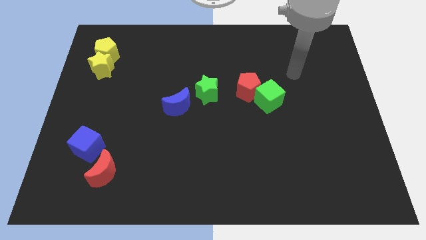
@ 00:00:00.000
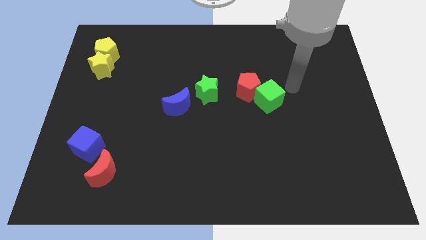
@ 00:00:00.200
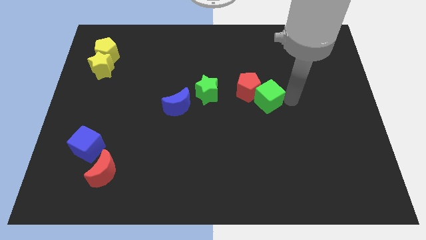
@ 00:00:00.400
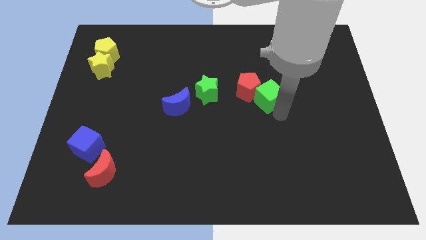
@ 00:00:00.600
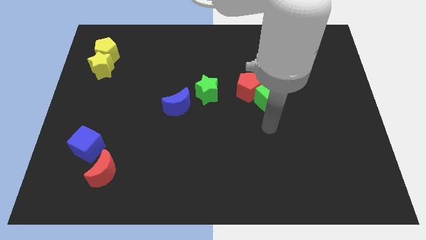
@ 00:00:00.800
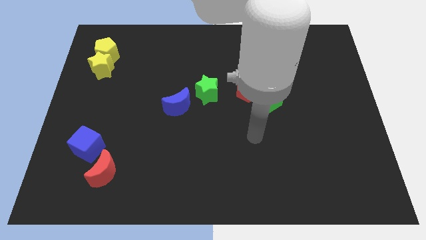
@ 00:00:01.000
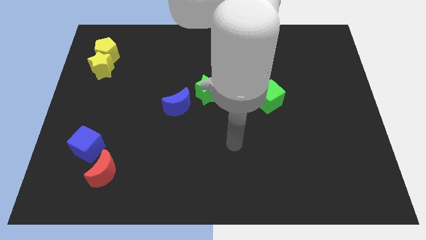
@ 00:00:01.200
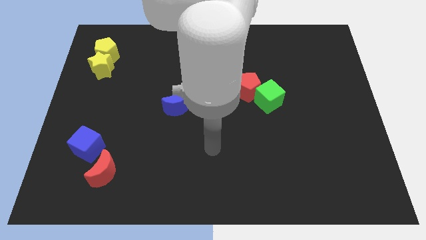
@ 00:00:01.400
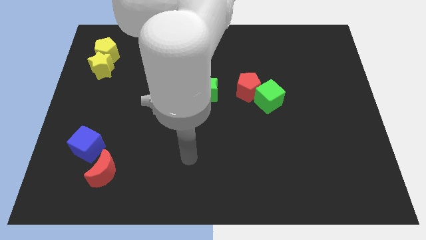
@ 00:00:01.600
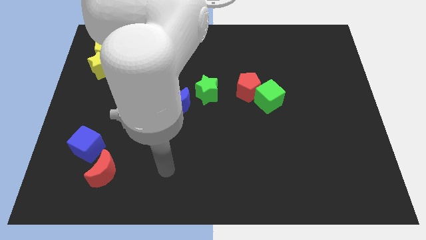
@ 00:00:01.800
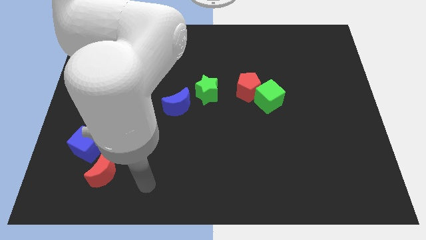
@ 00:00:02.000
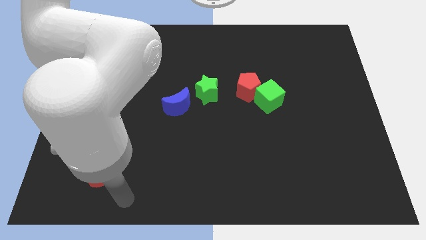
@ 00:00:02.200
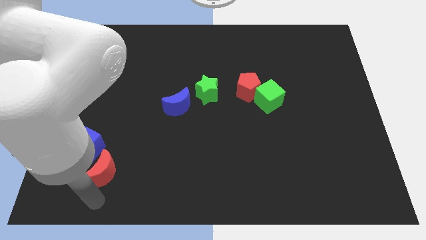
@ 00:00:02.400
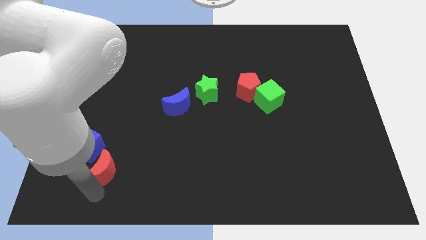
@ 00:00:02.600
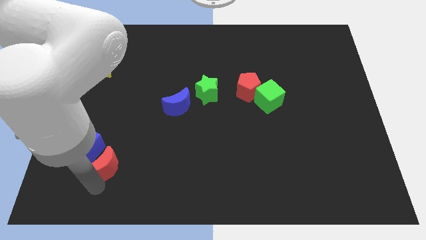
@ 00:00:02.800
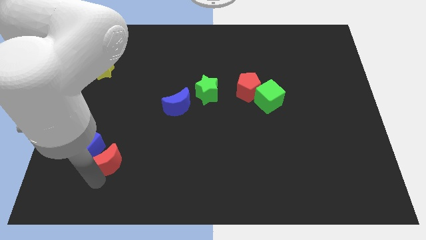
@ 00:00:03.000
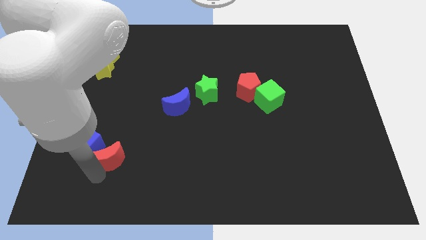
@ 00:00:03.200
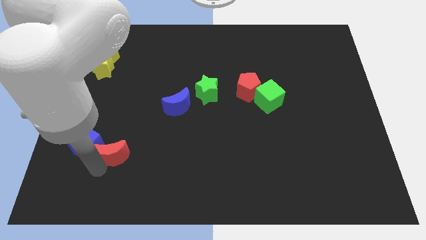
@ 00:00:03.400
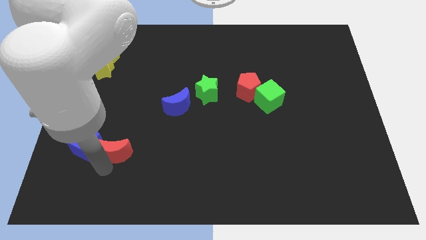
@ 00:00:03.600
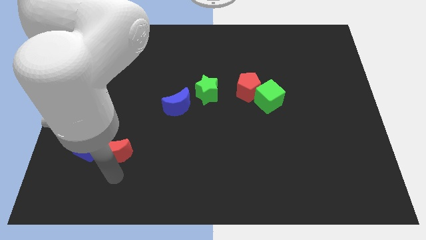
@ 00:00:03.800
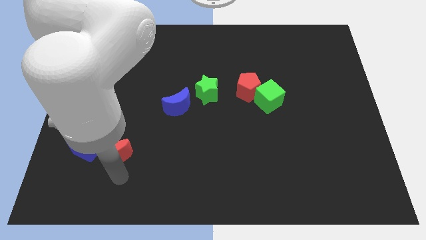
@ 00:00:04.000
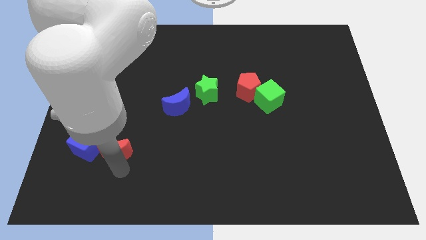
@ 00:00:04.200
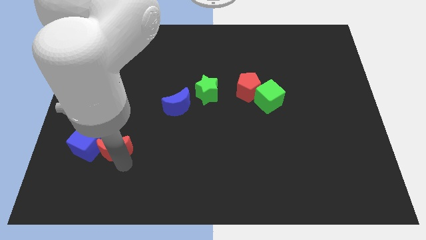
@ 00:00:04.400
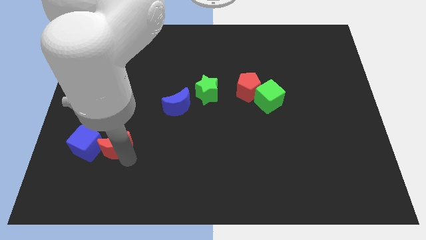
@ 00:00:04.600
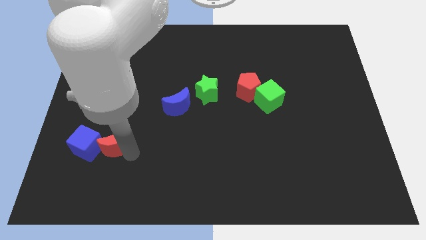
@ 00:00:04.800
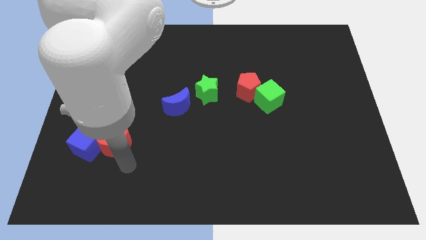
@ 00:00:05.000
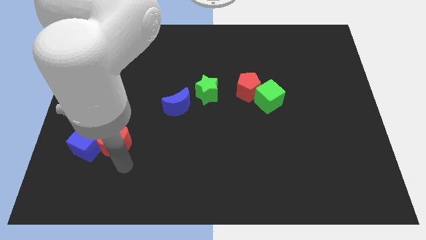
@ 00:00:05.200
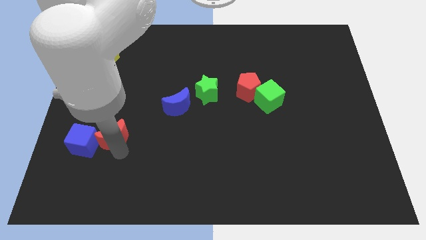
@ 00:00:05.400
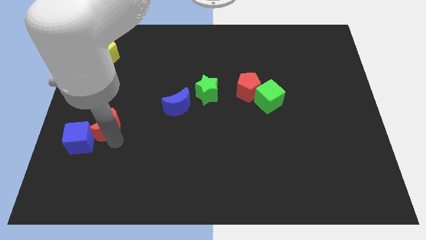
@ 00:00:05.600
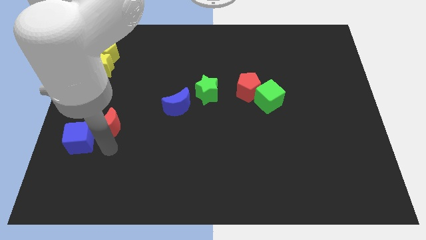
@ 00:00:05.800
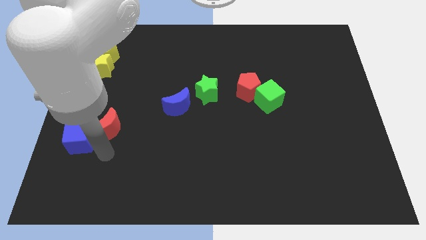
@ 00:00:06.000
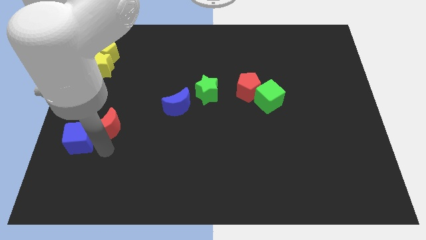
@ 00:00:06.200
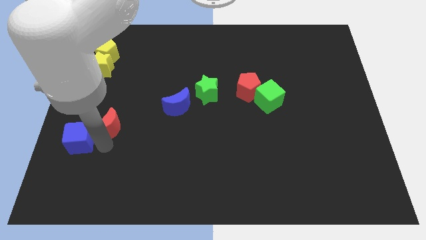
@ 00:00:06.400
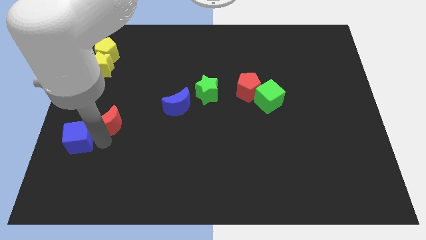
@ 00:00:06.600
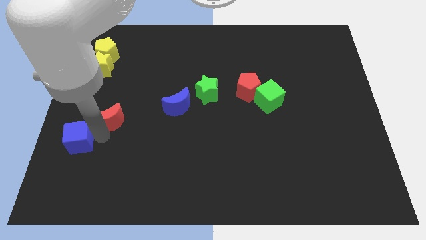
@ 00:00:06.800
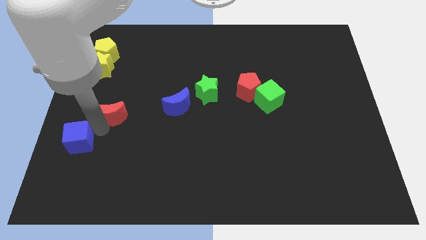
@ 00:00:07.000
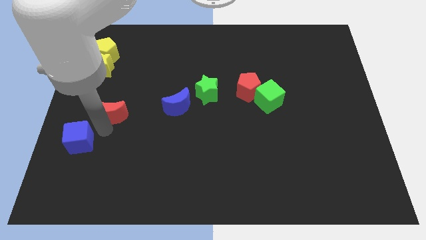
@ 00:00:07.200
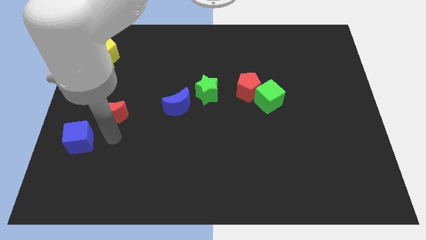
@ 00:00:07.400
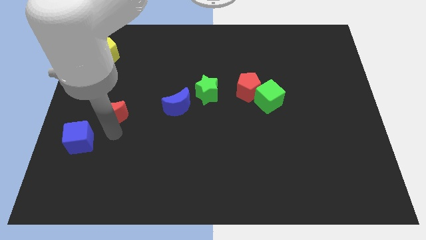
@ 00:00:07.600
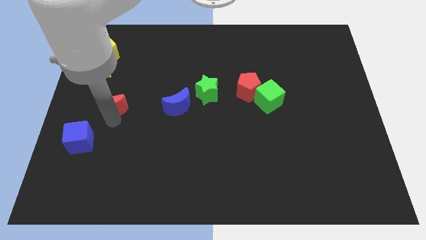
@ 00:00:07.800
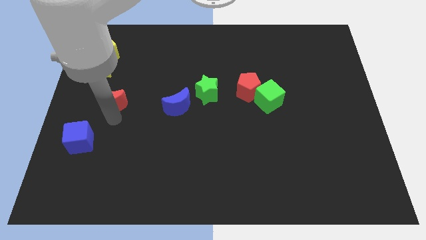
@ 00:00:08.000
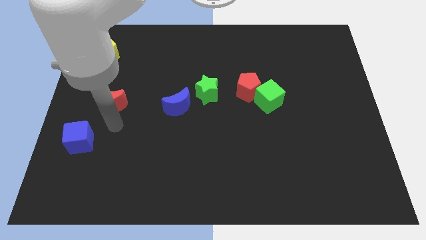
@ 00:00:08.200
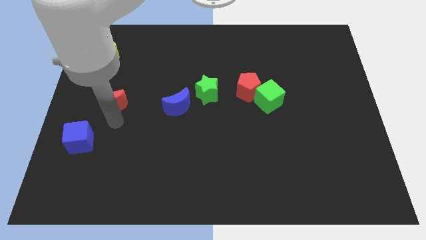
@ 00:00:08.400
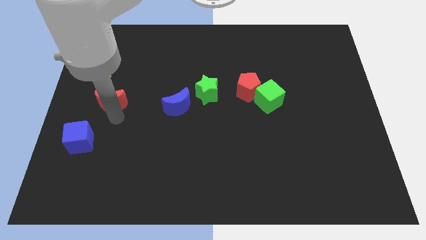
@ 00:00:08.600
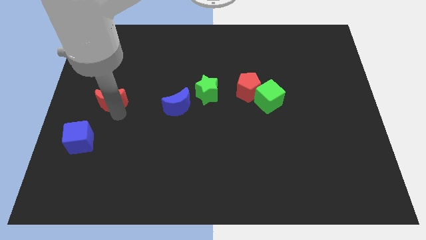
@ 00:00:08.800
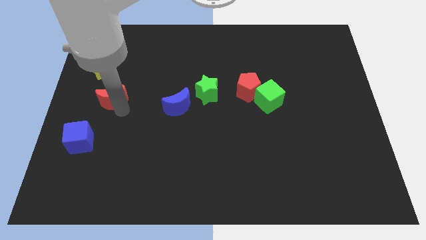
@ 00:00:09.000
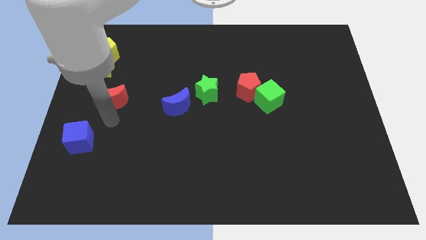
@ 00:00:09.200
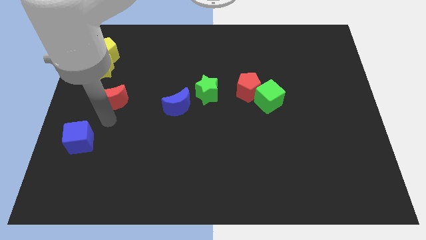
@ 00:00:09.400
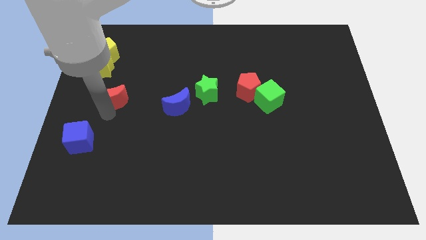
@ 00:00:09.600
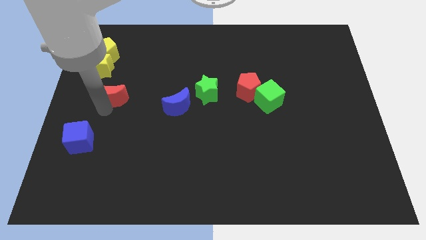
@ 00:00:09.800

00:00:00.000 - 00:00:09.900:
push the red moon upwards

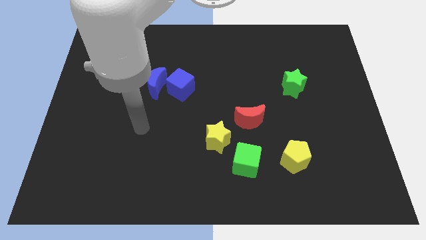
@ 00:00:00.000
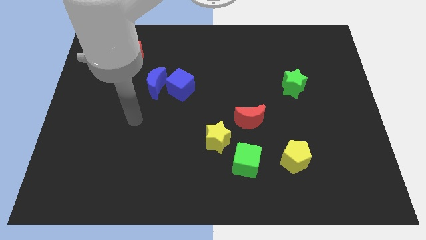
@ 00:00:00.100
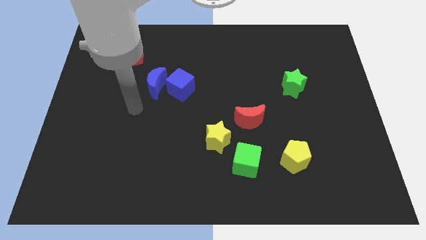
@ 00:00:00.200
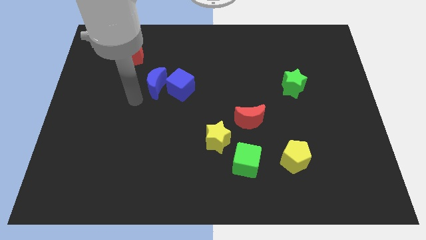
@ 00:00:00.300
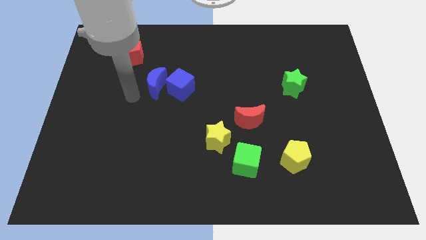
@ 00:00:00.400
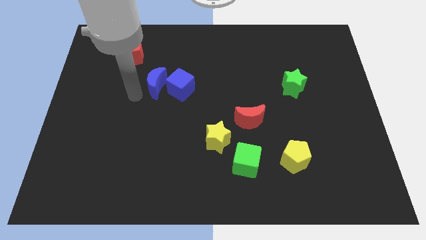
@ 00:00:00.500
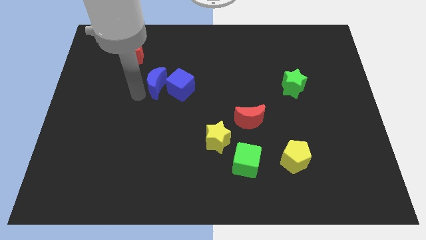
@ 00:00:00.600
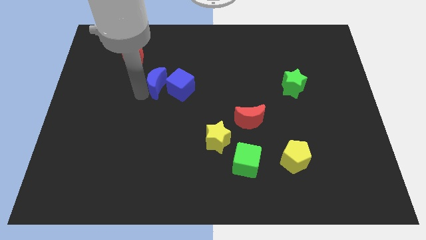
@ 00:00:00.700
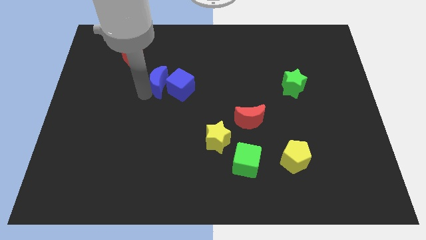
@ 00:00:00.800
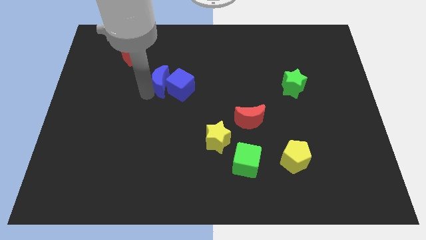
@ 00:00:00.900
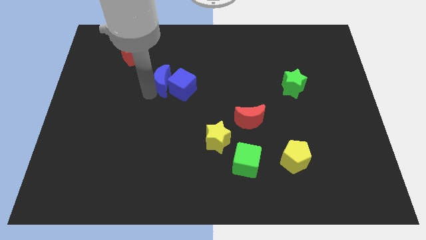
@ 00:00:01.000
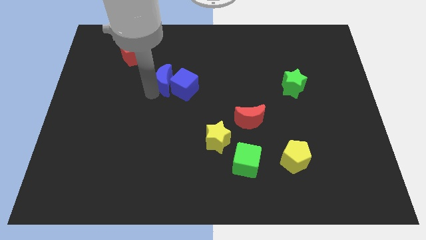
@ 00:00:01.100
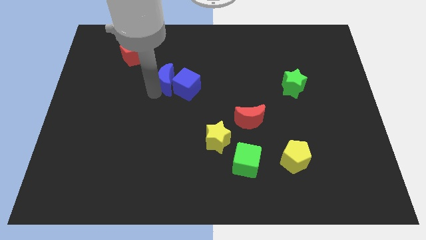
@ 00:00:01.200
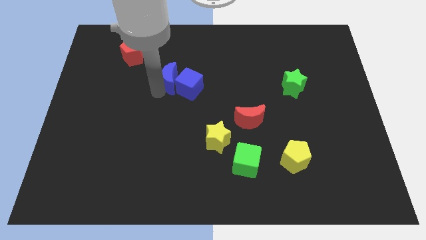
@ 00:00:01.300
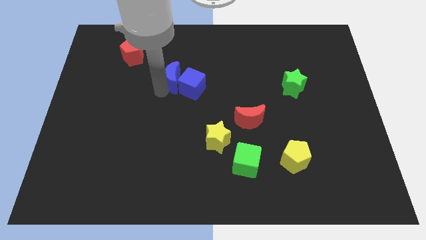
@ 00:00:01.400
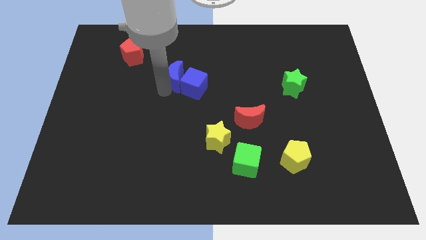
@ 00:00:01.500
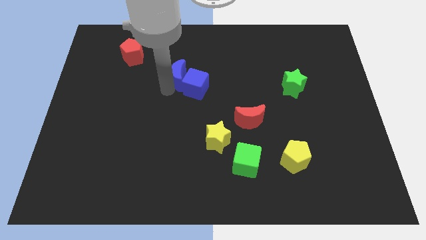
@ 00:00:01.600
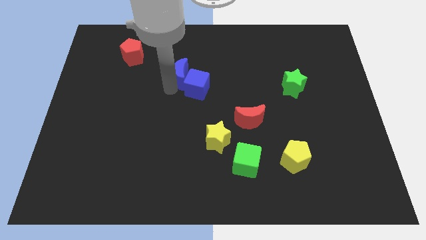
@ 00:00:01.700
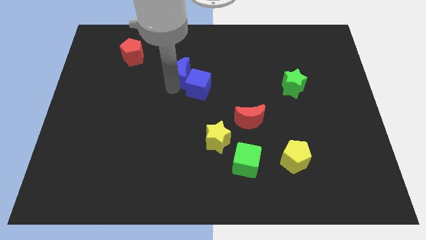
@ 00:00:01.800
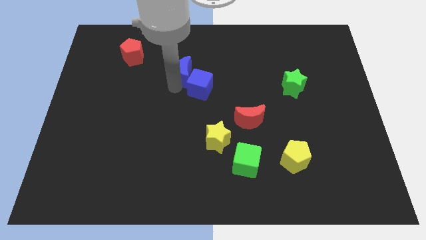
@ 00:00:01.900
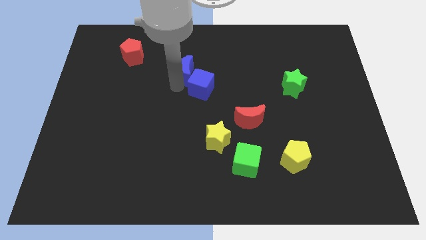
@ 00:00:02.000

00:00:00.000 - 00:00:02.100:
push the blue moon to the right a little

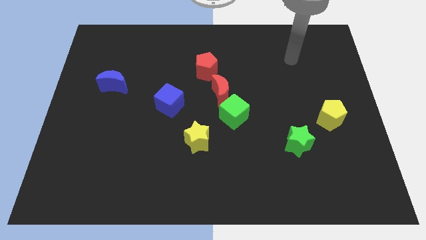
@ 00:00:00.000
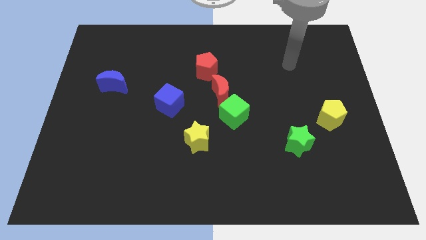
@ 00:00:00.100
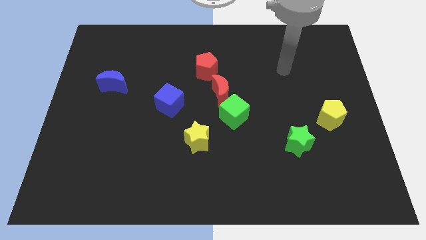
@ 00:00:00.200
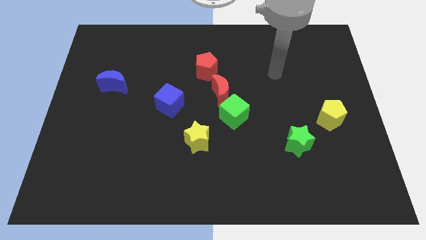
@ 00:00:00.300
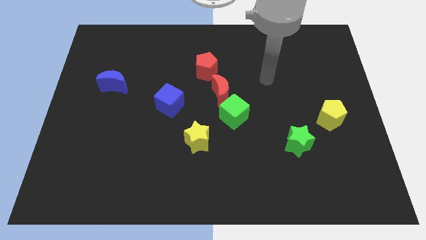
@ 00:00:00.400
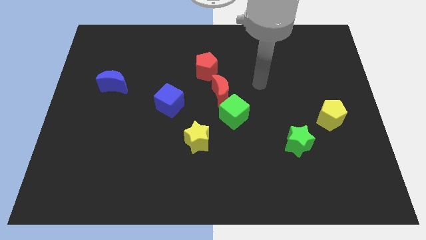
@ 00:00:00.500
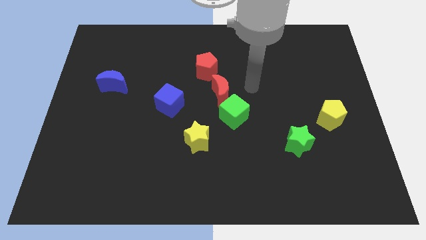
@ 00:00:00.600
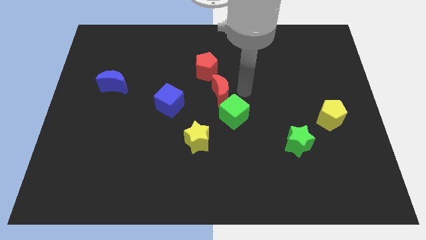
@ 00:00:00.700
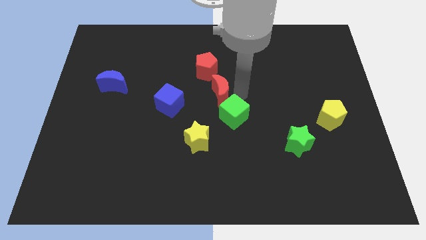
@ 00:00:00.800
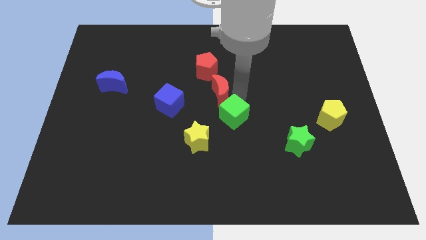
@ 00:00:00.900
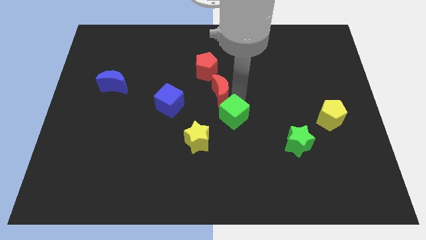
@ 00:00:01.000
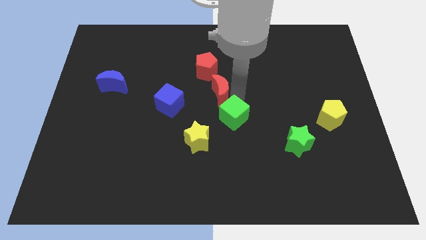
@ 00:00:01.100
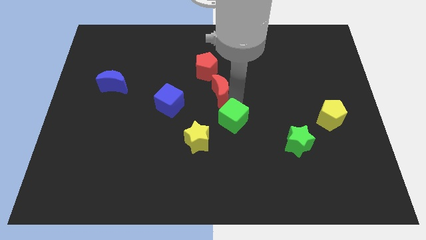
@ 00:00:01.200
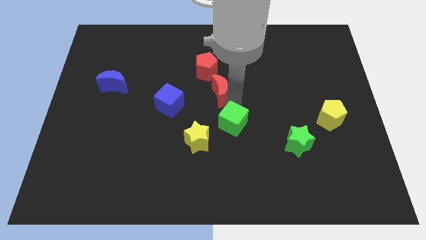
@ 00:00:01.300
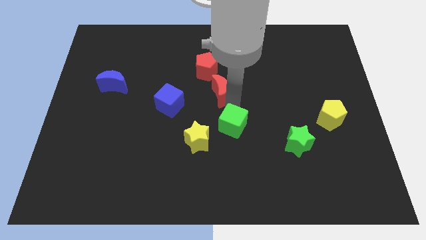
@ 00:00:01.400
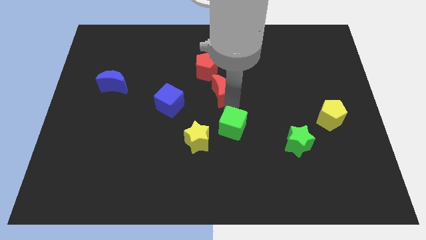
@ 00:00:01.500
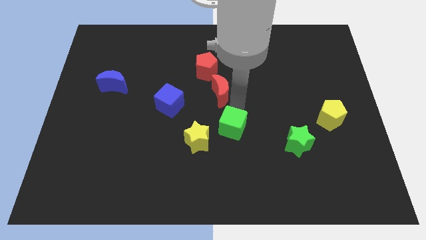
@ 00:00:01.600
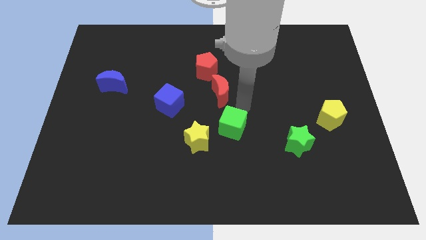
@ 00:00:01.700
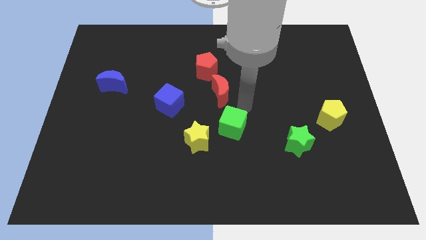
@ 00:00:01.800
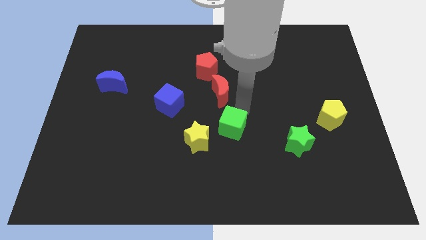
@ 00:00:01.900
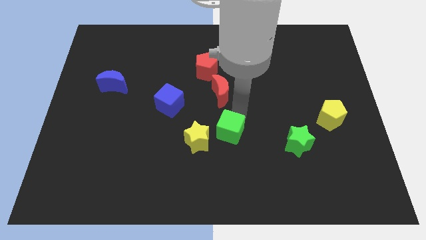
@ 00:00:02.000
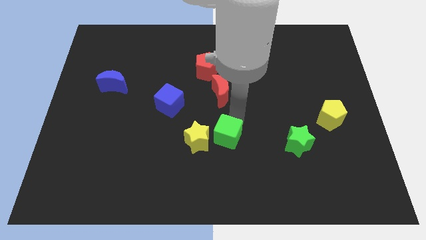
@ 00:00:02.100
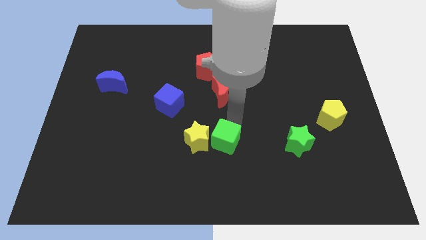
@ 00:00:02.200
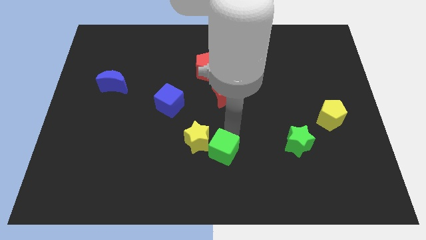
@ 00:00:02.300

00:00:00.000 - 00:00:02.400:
slightly move the green cube down and to the left diagonally
